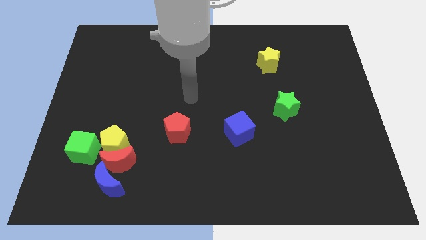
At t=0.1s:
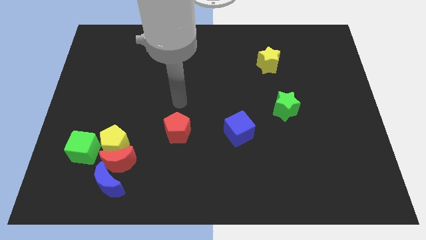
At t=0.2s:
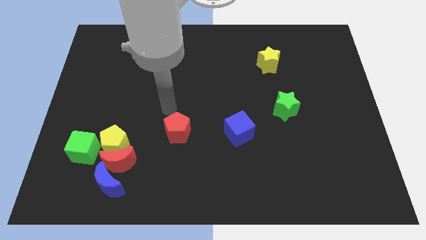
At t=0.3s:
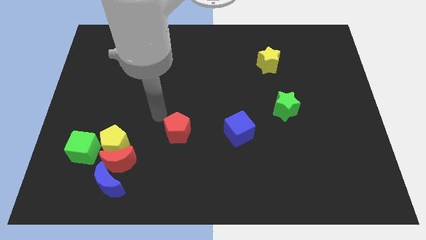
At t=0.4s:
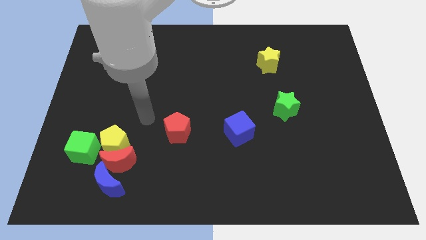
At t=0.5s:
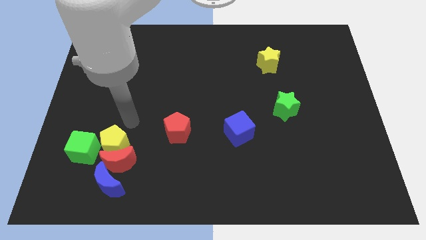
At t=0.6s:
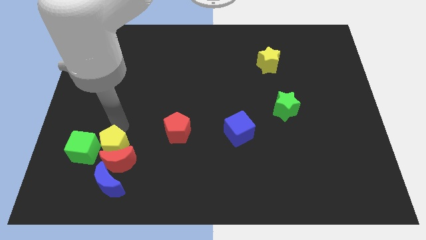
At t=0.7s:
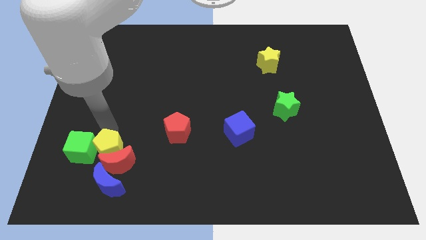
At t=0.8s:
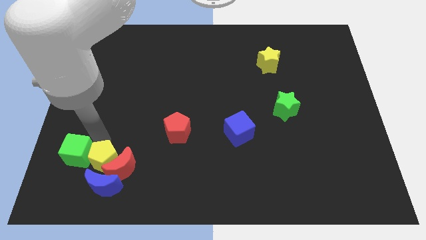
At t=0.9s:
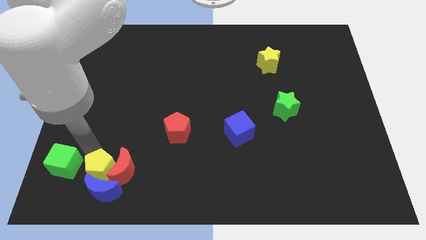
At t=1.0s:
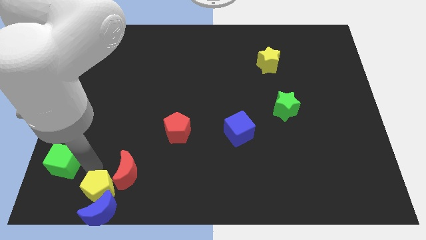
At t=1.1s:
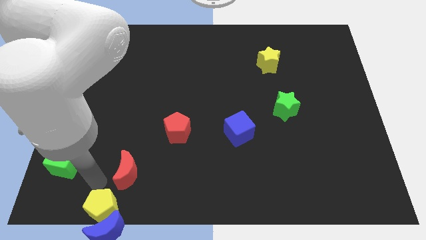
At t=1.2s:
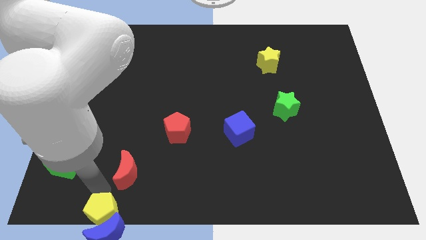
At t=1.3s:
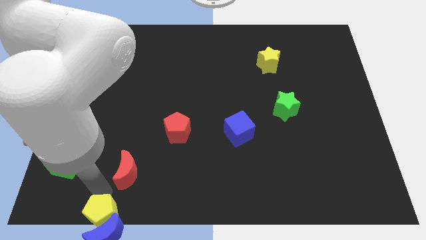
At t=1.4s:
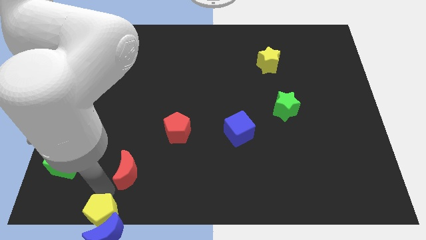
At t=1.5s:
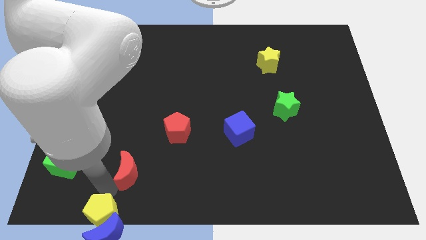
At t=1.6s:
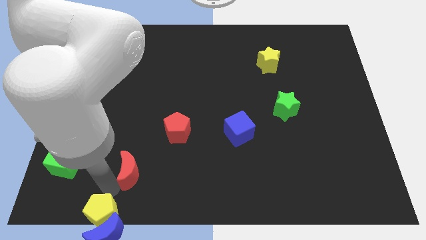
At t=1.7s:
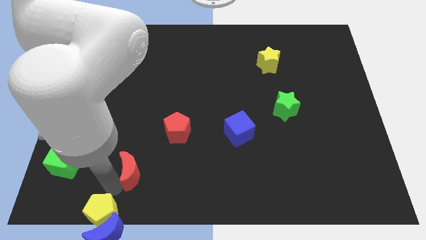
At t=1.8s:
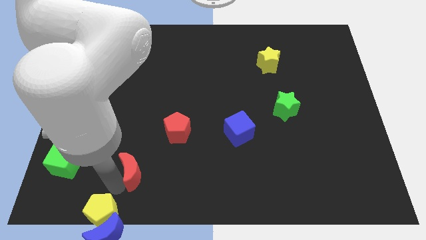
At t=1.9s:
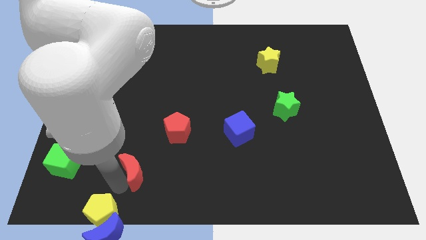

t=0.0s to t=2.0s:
pull the red moon apart from the yellow pentagon, blue moon, and green cube

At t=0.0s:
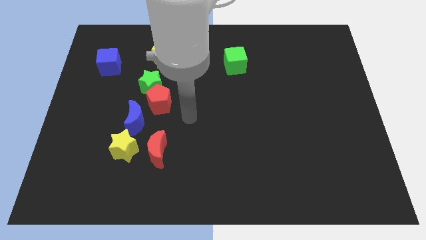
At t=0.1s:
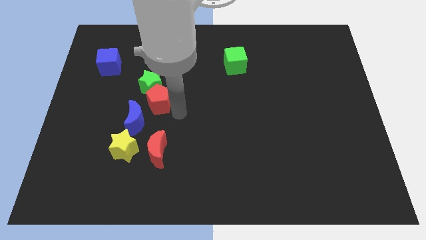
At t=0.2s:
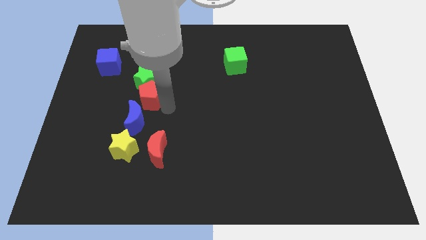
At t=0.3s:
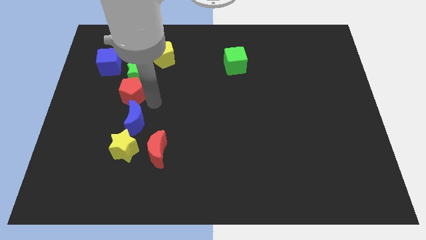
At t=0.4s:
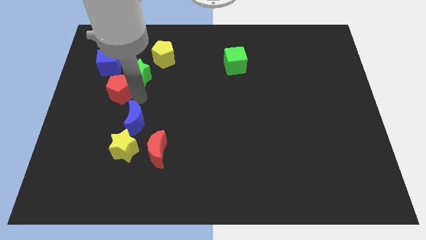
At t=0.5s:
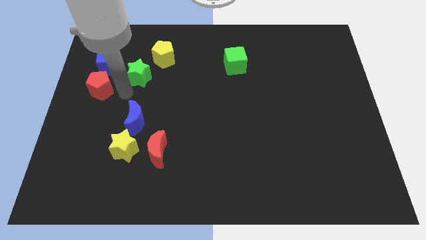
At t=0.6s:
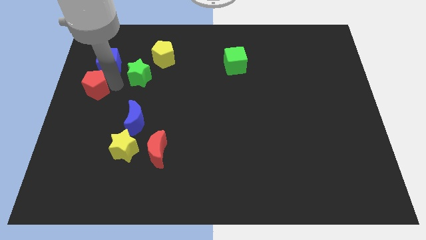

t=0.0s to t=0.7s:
separate the green star from the red pentagon

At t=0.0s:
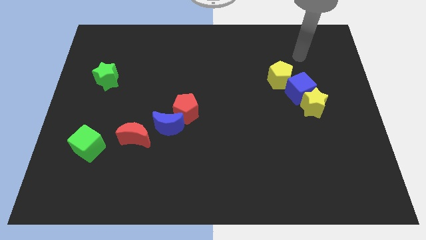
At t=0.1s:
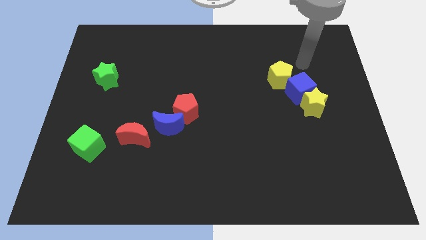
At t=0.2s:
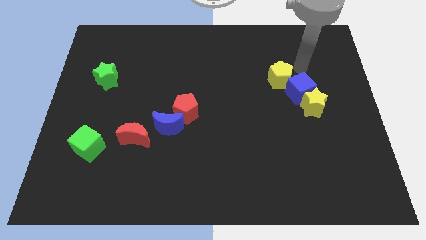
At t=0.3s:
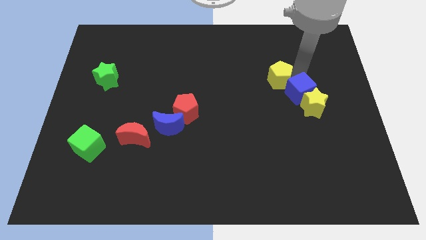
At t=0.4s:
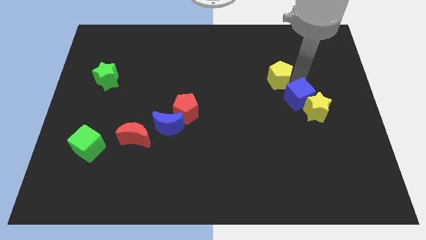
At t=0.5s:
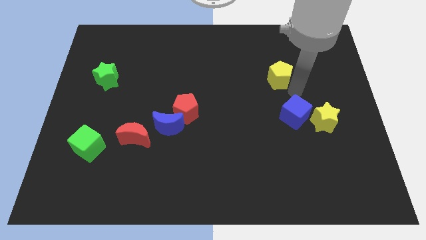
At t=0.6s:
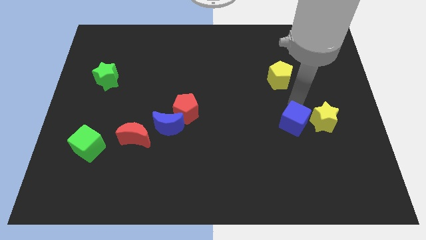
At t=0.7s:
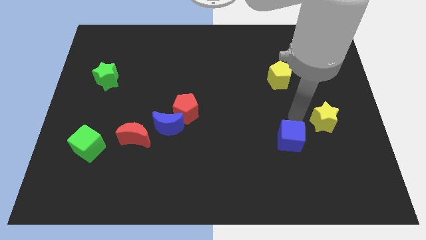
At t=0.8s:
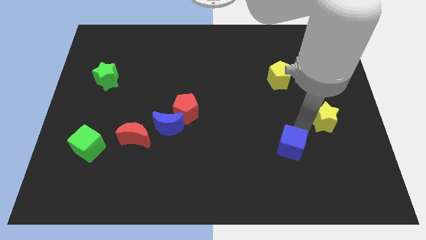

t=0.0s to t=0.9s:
pull the yellow star apart from the blue cube

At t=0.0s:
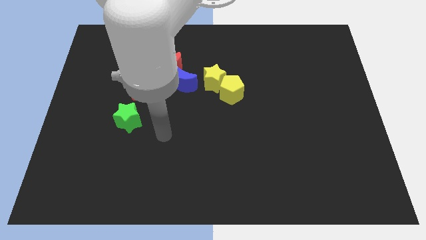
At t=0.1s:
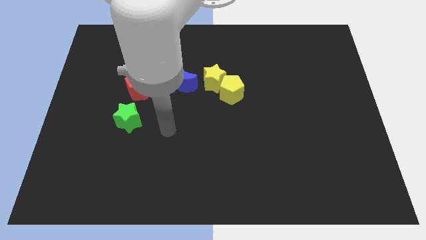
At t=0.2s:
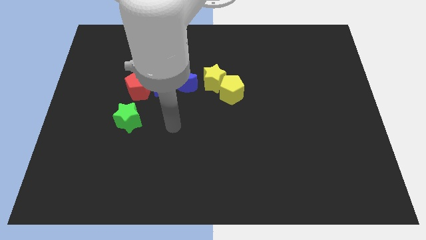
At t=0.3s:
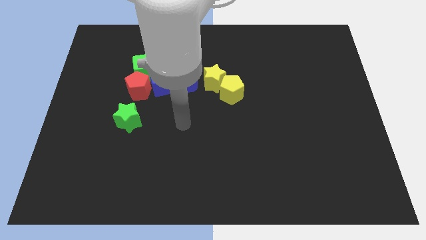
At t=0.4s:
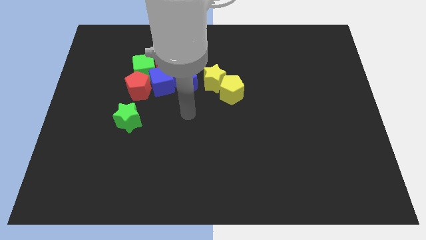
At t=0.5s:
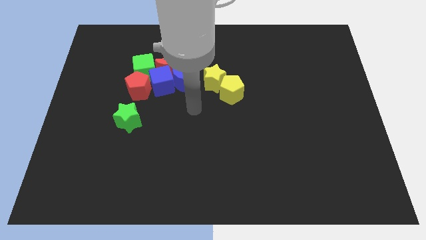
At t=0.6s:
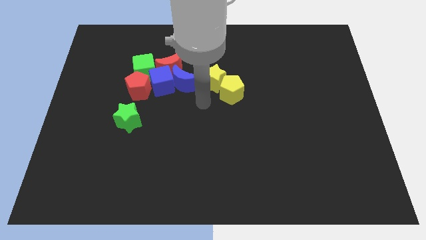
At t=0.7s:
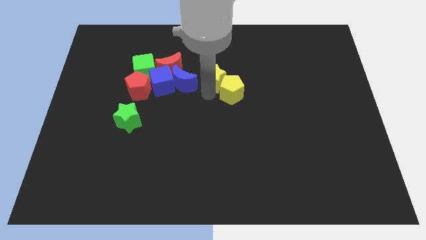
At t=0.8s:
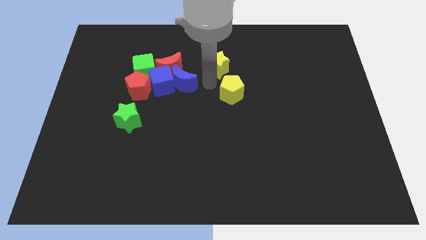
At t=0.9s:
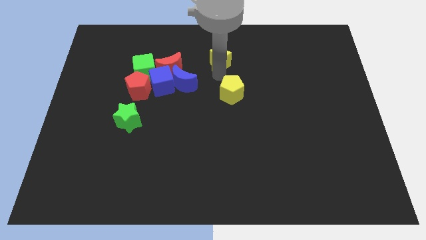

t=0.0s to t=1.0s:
move the yellow pentagon away from the yellow star

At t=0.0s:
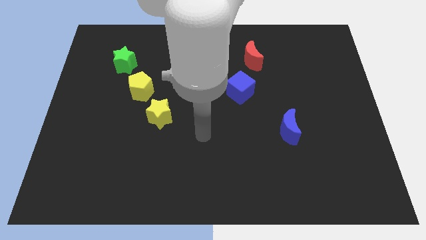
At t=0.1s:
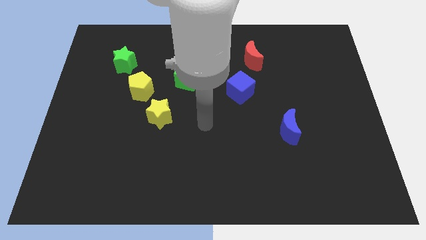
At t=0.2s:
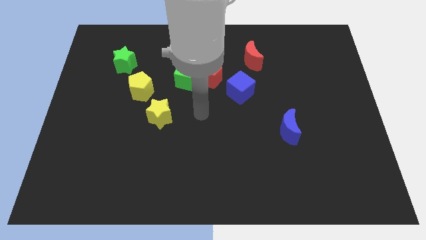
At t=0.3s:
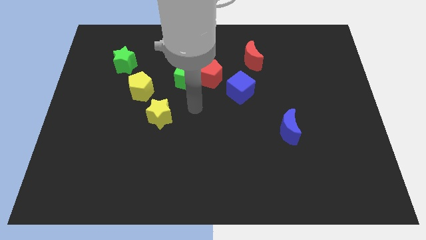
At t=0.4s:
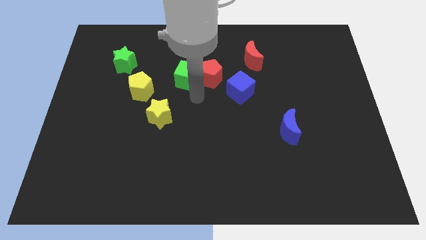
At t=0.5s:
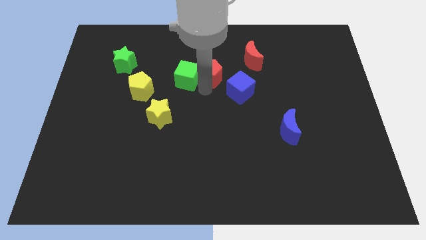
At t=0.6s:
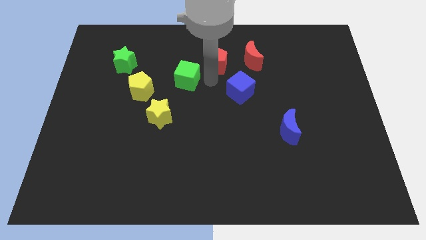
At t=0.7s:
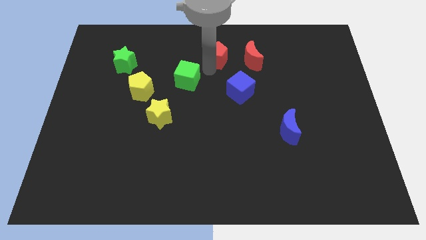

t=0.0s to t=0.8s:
move the green cube away from the red pentagon

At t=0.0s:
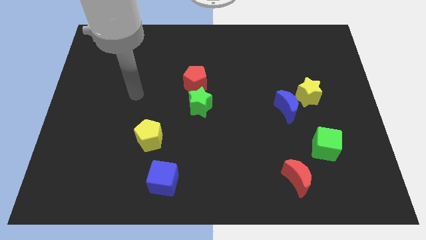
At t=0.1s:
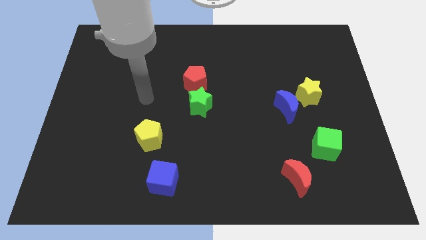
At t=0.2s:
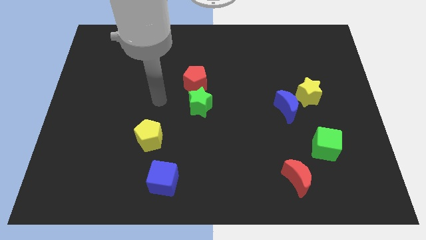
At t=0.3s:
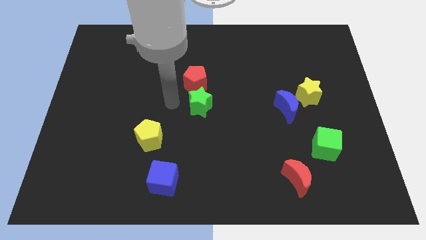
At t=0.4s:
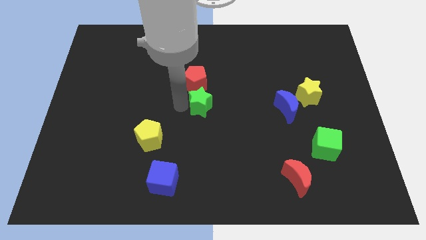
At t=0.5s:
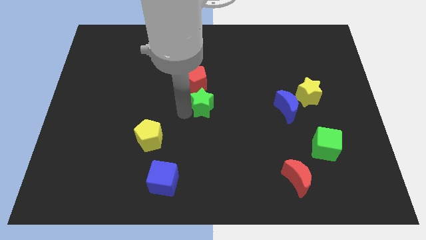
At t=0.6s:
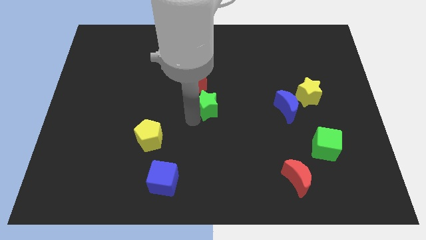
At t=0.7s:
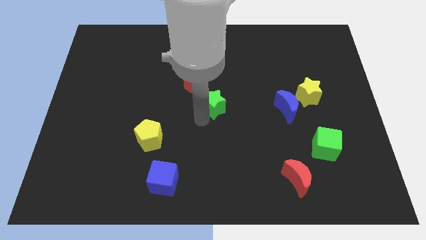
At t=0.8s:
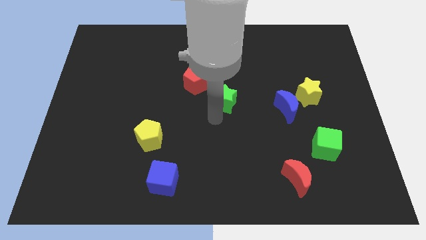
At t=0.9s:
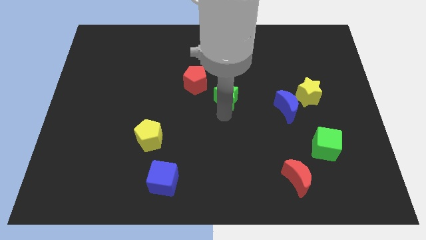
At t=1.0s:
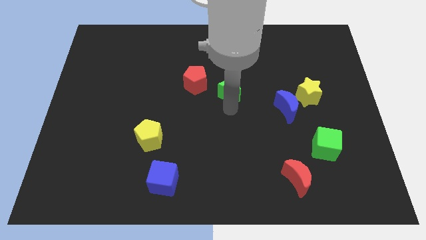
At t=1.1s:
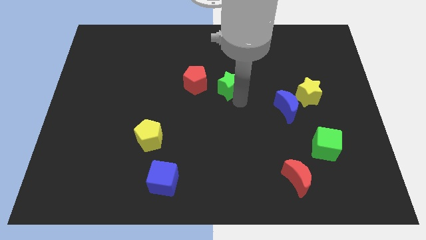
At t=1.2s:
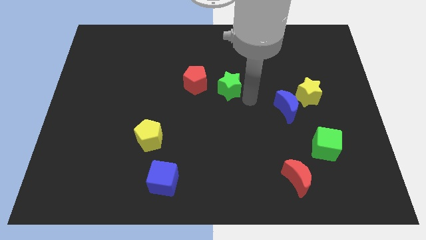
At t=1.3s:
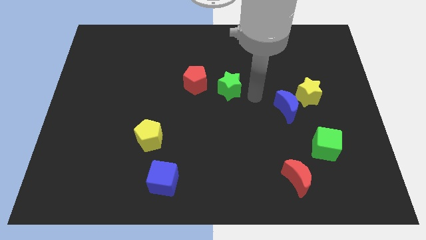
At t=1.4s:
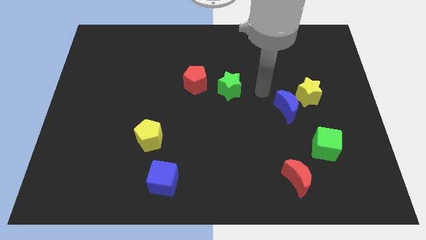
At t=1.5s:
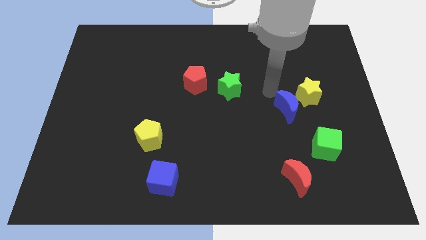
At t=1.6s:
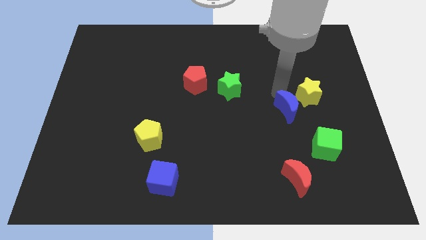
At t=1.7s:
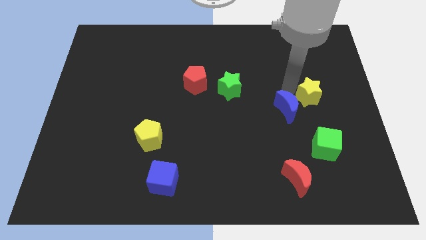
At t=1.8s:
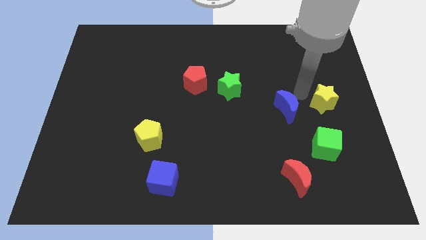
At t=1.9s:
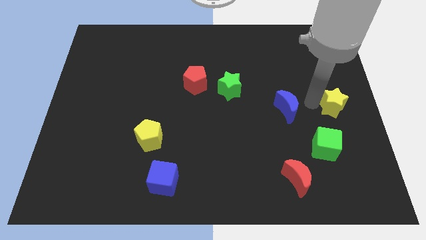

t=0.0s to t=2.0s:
separate the blue moon from the yellow star

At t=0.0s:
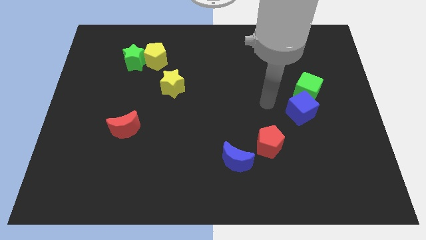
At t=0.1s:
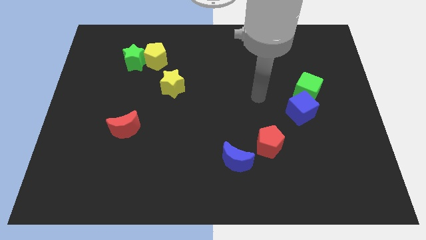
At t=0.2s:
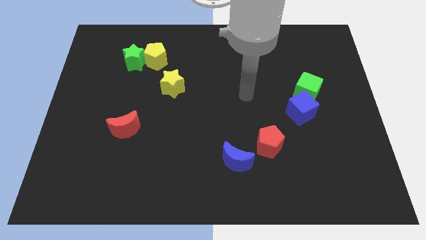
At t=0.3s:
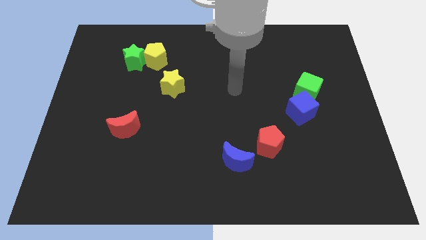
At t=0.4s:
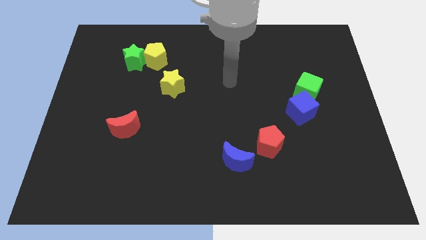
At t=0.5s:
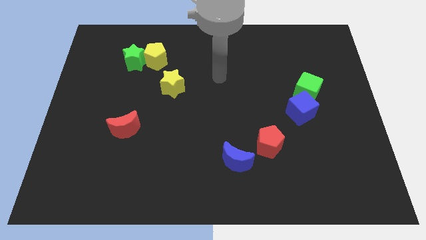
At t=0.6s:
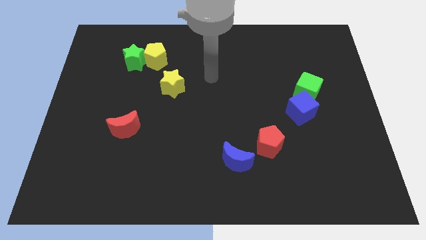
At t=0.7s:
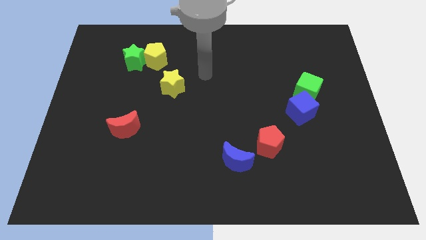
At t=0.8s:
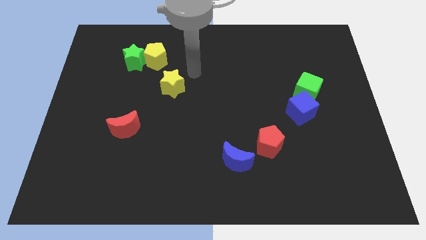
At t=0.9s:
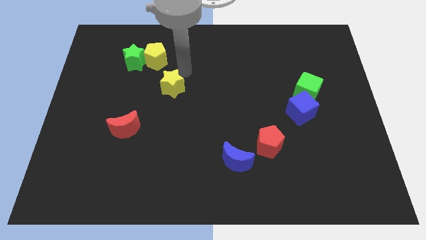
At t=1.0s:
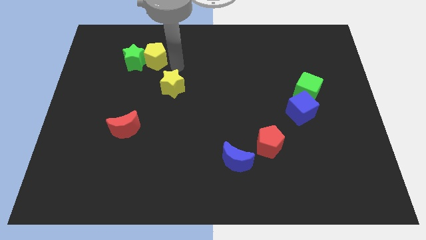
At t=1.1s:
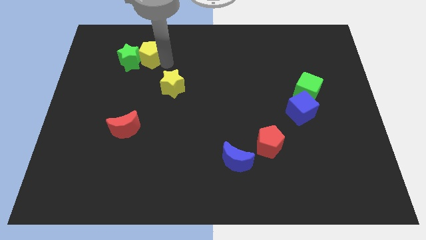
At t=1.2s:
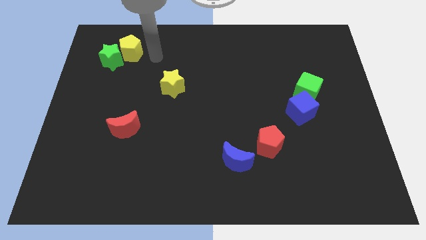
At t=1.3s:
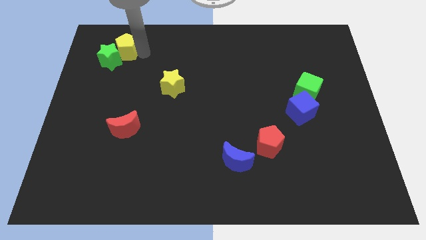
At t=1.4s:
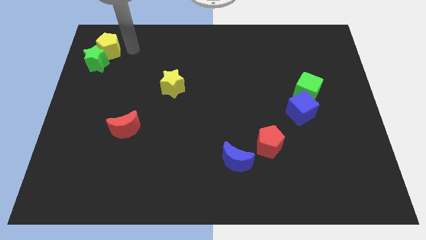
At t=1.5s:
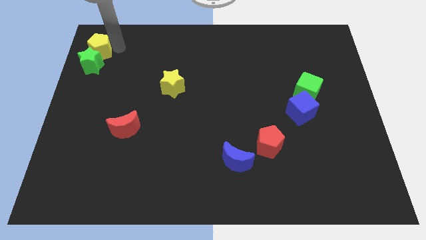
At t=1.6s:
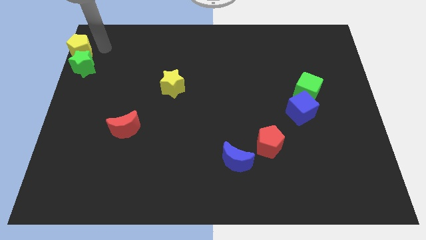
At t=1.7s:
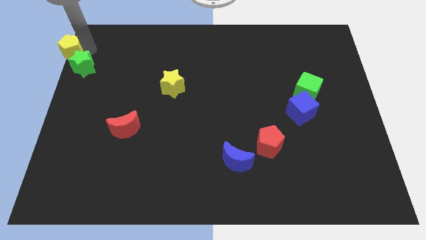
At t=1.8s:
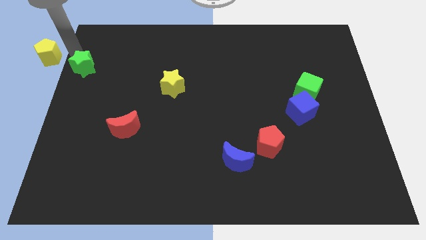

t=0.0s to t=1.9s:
separate the green star from the yellow pentagon
